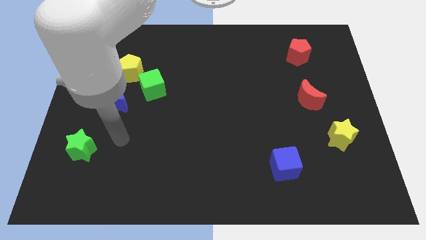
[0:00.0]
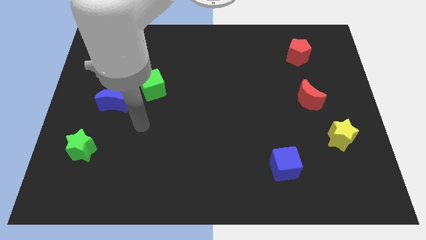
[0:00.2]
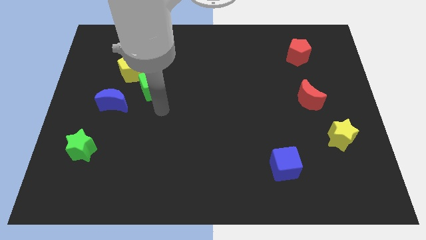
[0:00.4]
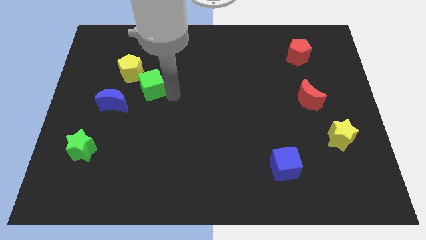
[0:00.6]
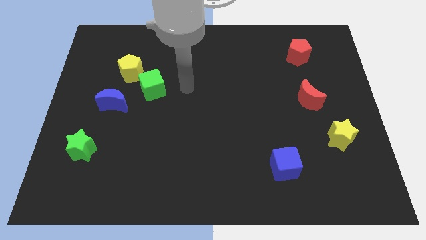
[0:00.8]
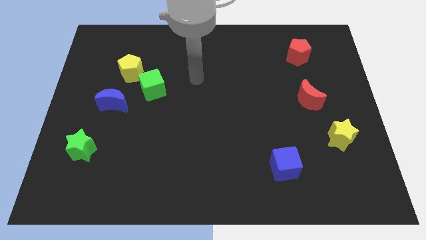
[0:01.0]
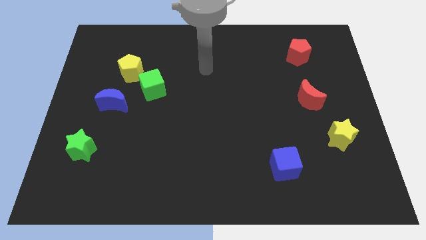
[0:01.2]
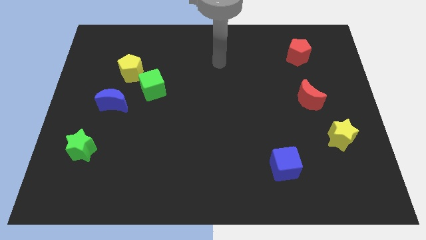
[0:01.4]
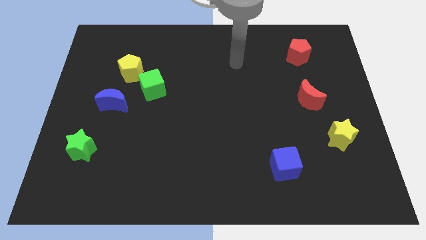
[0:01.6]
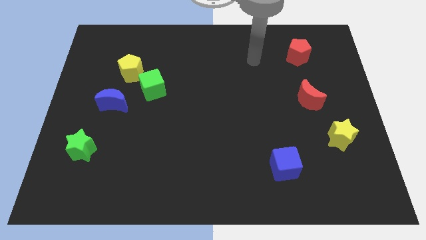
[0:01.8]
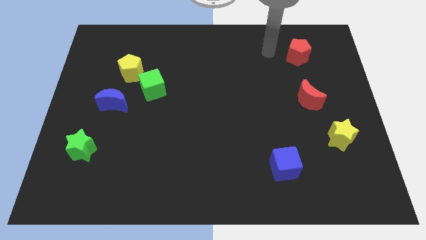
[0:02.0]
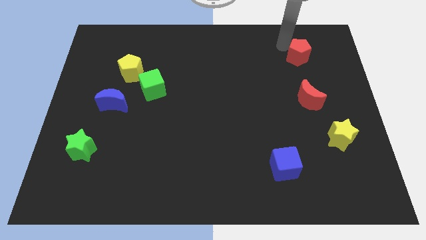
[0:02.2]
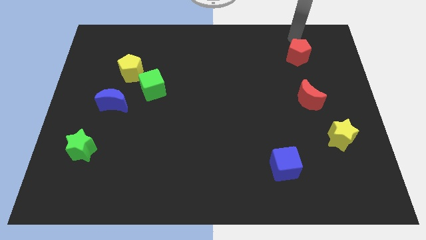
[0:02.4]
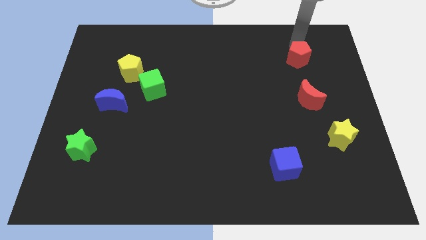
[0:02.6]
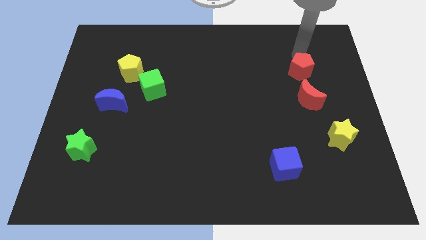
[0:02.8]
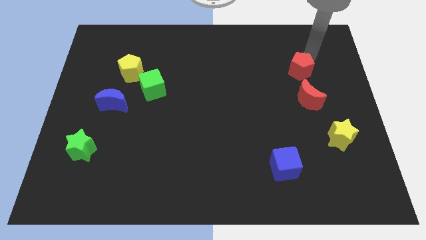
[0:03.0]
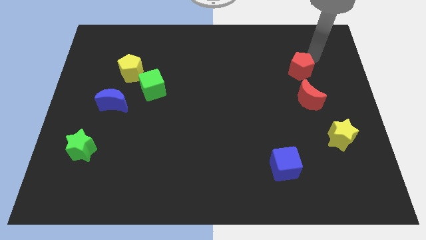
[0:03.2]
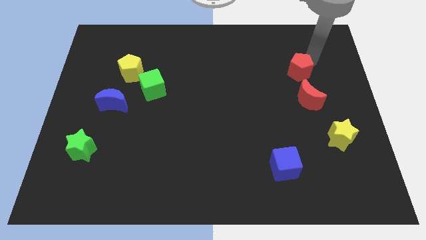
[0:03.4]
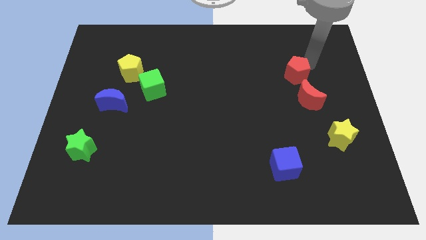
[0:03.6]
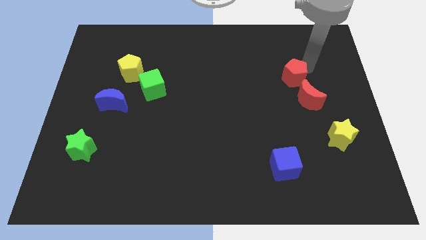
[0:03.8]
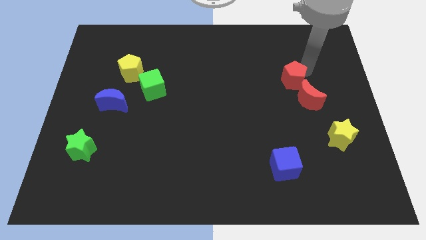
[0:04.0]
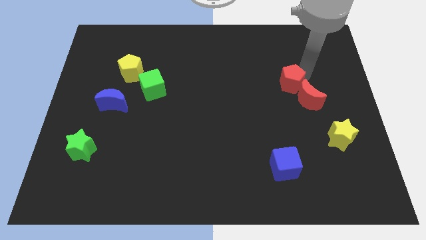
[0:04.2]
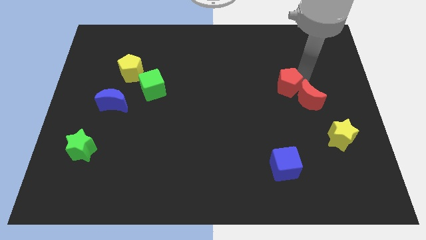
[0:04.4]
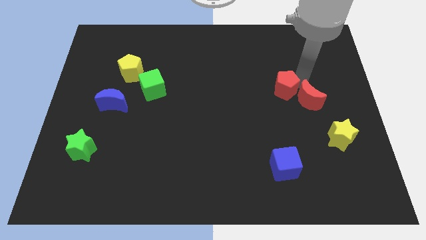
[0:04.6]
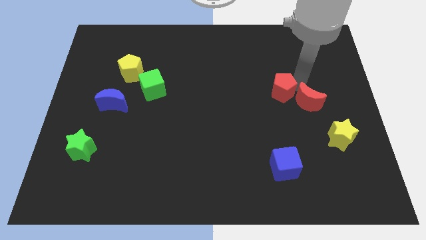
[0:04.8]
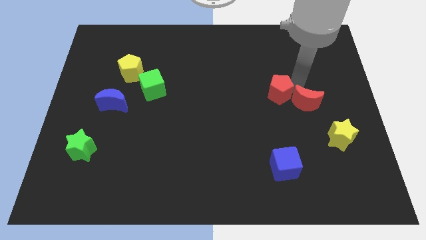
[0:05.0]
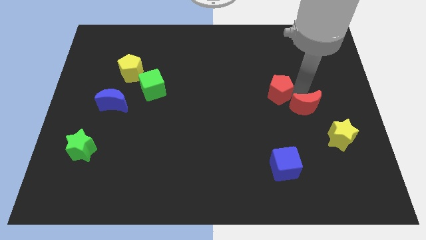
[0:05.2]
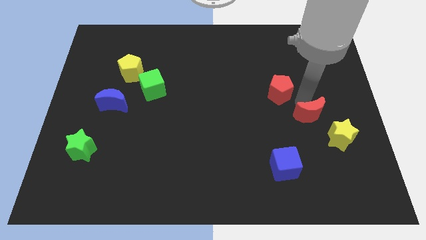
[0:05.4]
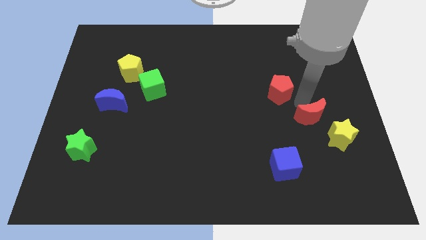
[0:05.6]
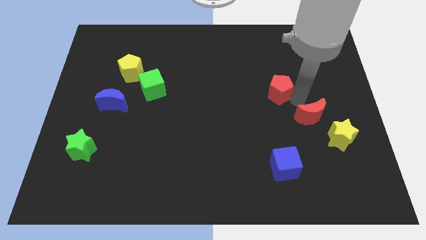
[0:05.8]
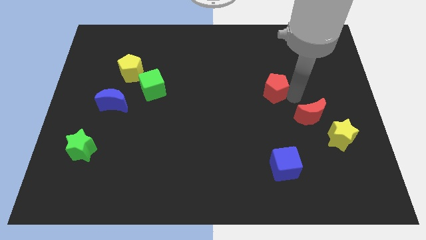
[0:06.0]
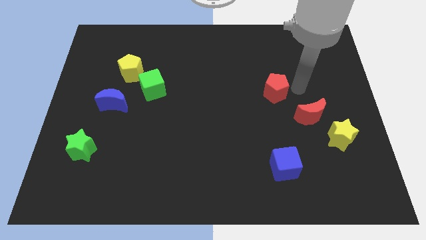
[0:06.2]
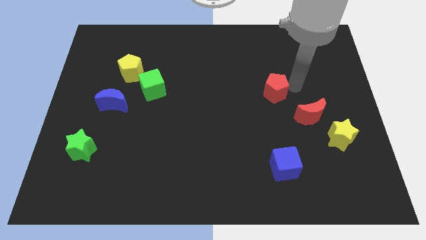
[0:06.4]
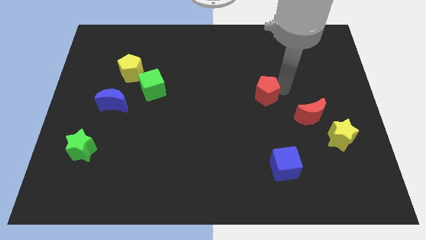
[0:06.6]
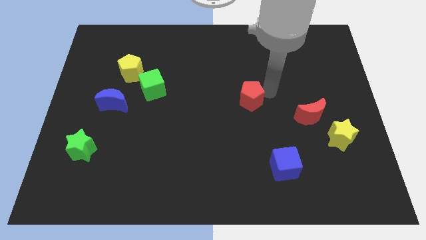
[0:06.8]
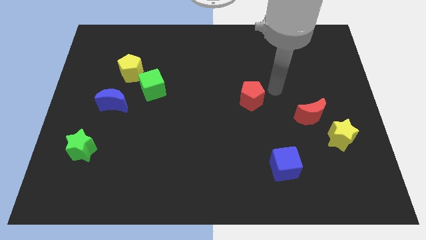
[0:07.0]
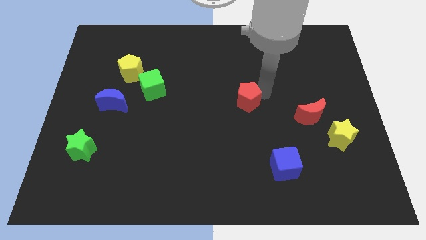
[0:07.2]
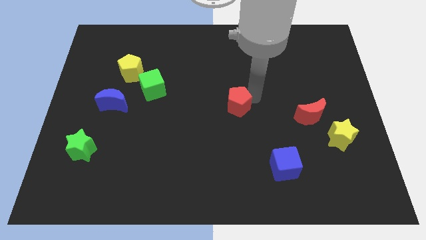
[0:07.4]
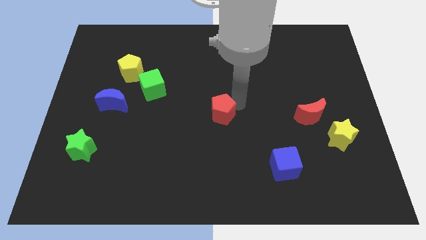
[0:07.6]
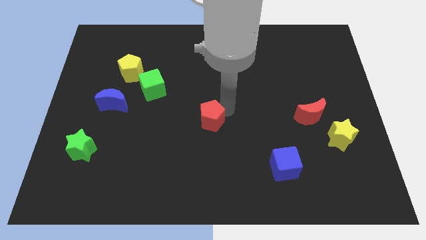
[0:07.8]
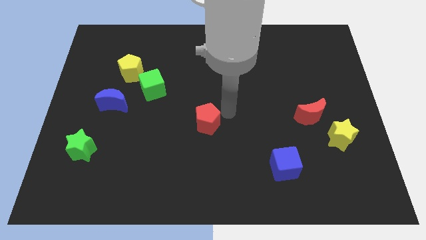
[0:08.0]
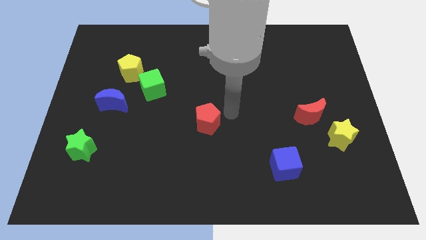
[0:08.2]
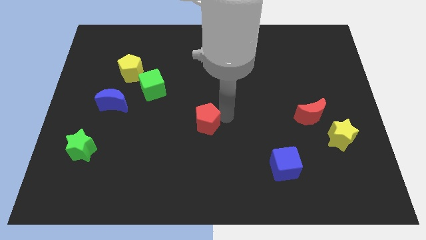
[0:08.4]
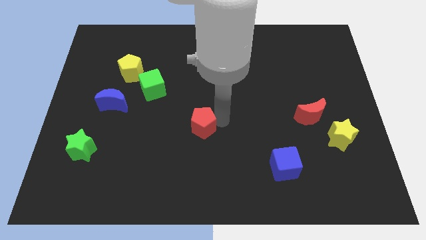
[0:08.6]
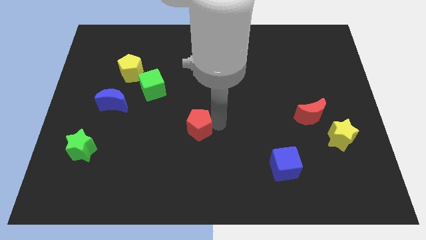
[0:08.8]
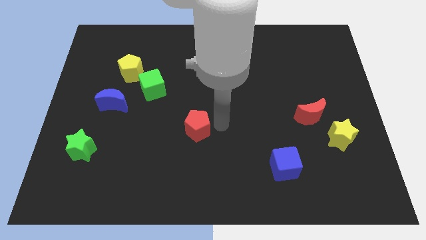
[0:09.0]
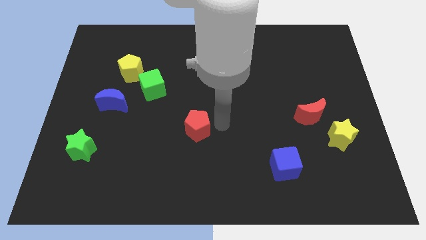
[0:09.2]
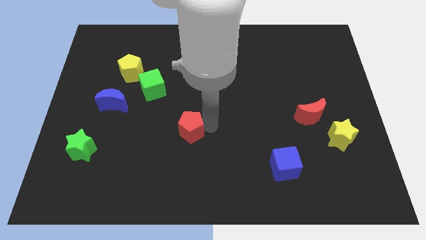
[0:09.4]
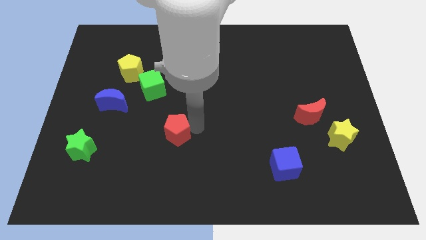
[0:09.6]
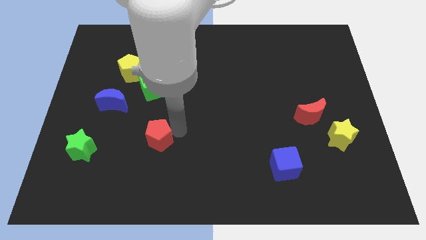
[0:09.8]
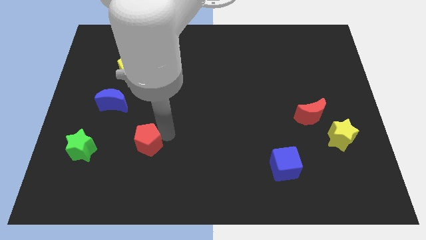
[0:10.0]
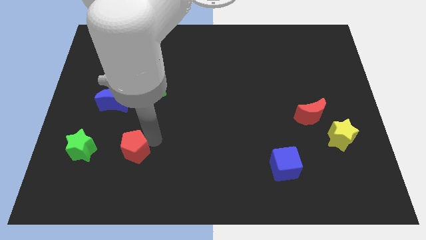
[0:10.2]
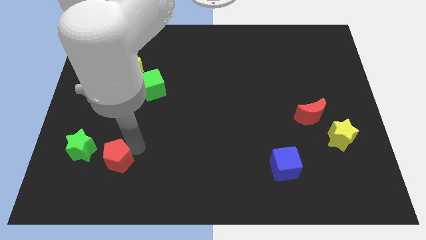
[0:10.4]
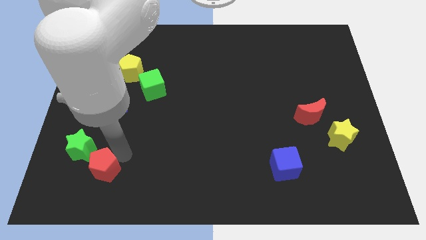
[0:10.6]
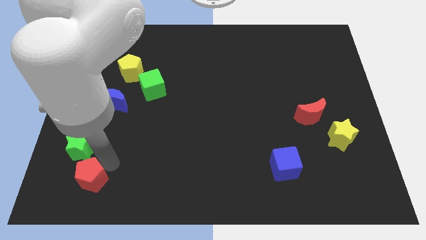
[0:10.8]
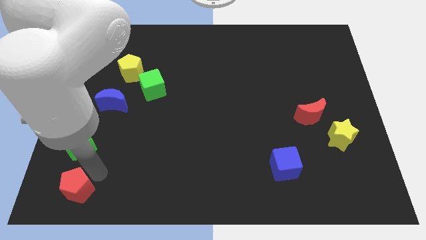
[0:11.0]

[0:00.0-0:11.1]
slide the red pentagon to the bottom left
